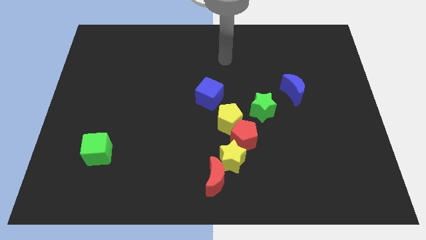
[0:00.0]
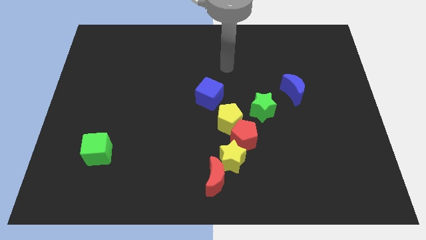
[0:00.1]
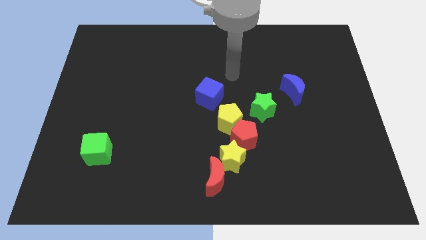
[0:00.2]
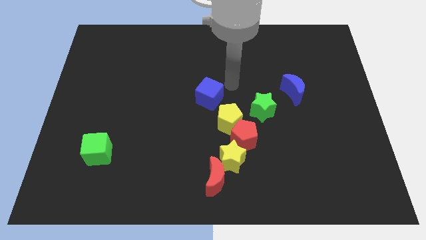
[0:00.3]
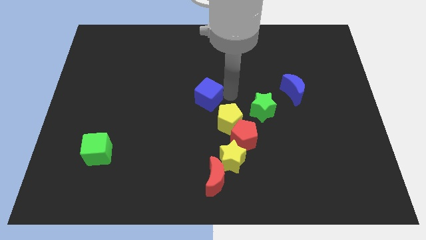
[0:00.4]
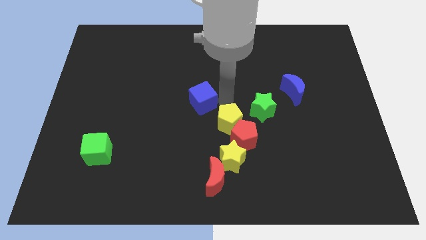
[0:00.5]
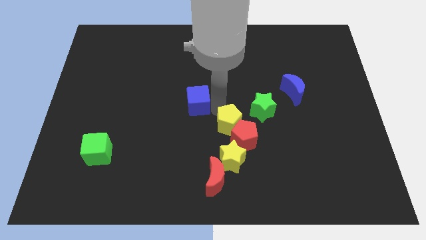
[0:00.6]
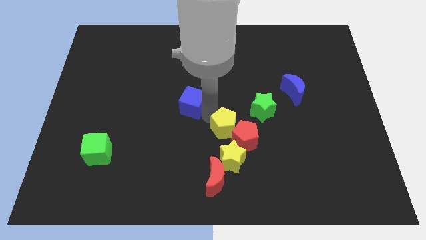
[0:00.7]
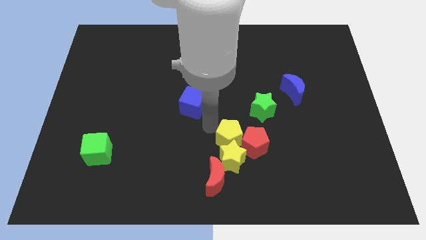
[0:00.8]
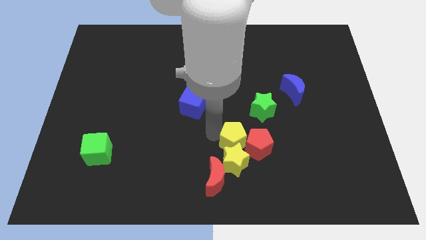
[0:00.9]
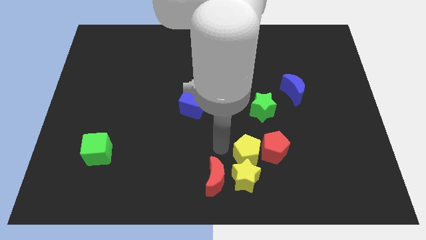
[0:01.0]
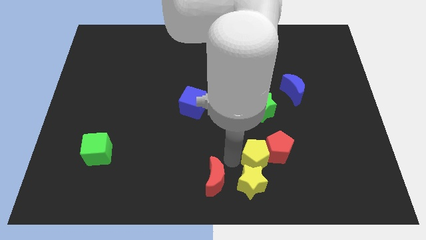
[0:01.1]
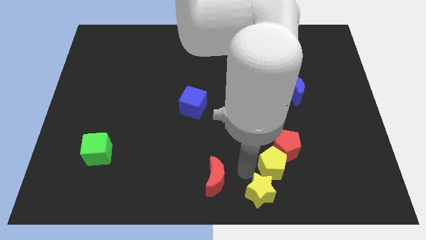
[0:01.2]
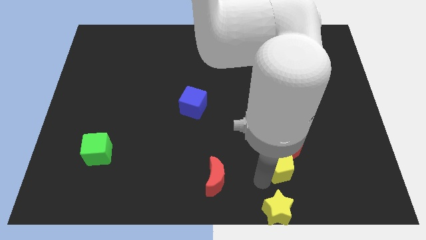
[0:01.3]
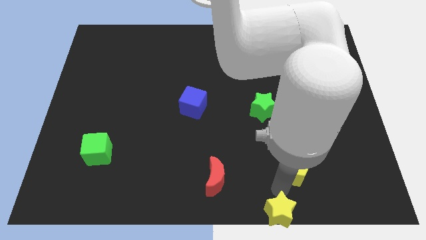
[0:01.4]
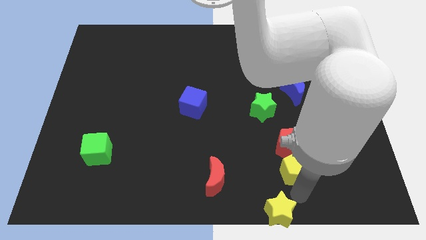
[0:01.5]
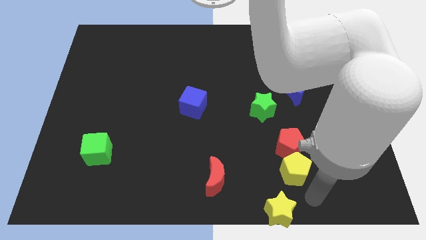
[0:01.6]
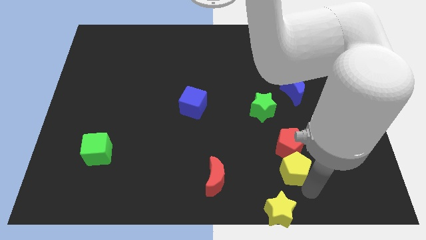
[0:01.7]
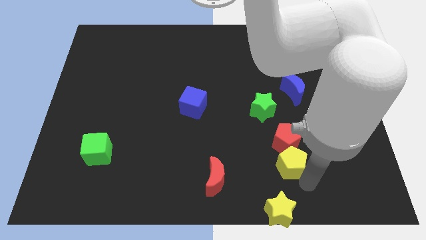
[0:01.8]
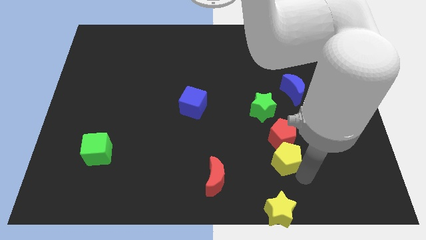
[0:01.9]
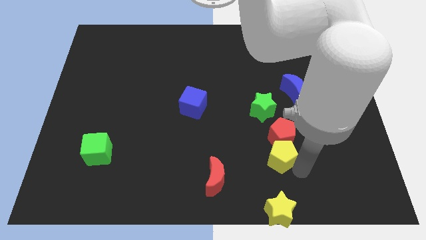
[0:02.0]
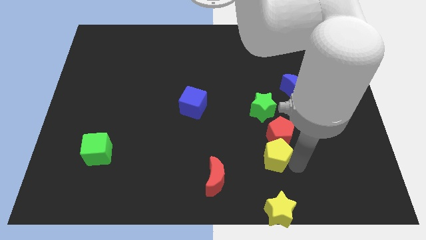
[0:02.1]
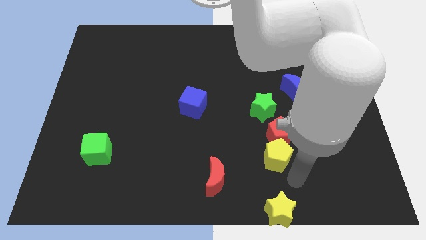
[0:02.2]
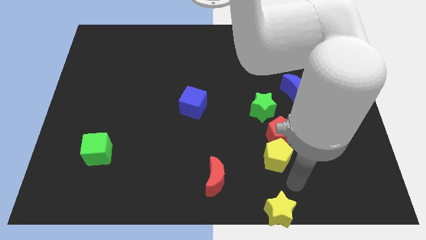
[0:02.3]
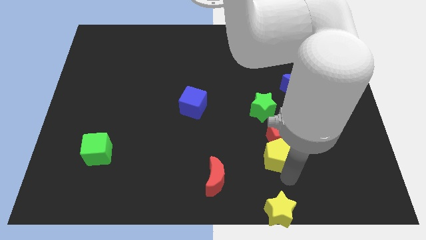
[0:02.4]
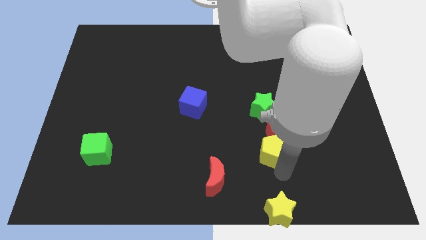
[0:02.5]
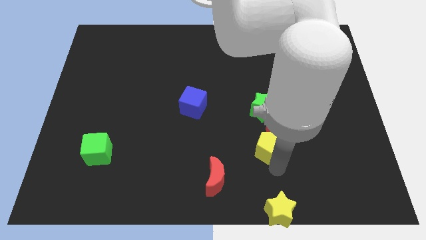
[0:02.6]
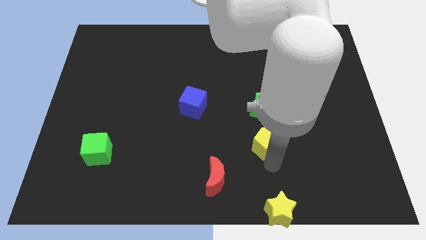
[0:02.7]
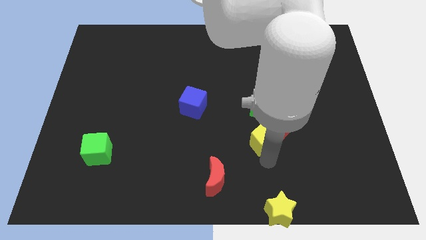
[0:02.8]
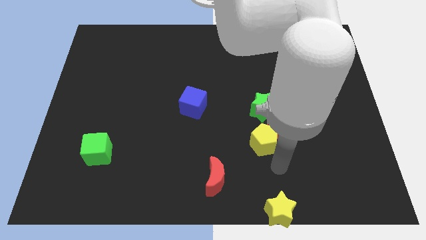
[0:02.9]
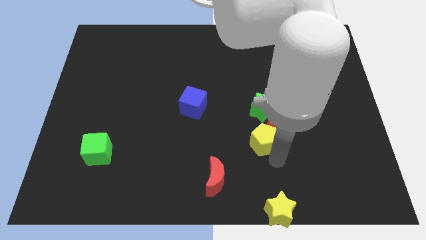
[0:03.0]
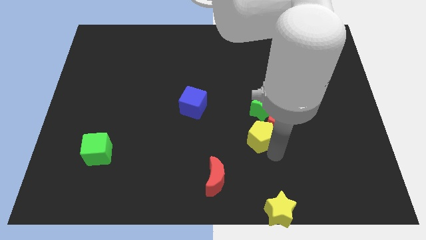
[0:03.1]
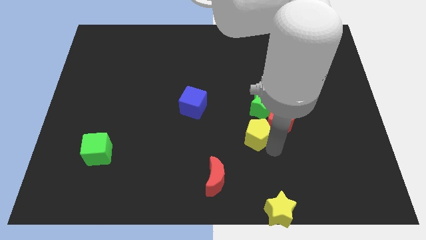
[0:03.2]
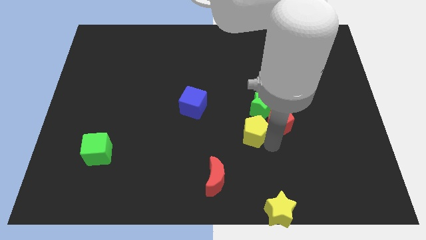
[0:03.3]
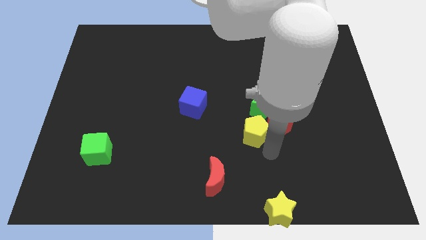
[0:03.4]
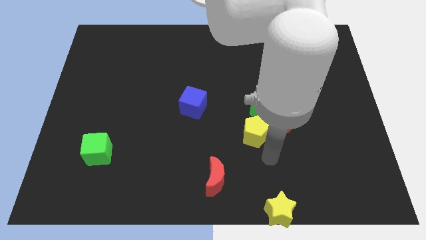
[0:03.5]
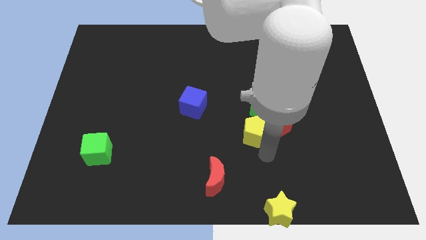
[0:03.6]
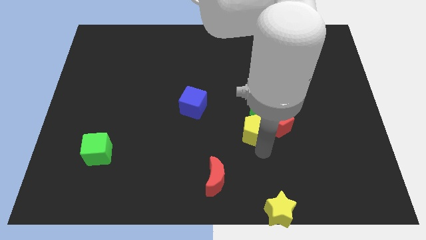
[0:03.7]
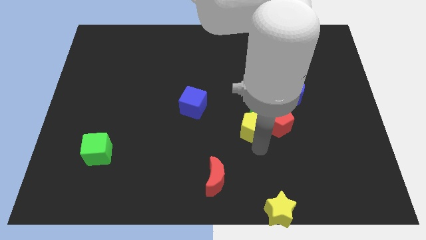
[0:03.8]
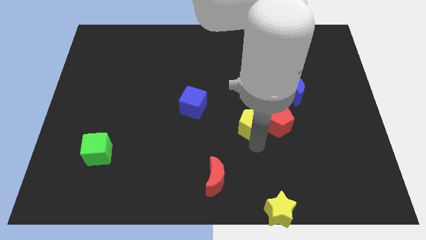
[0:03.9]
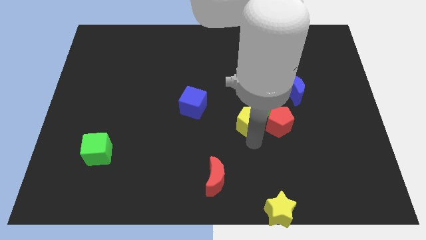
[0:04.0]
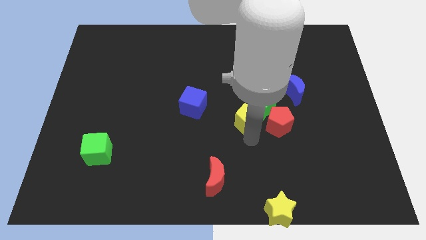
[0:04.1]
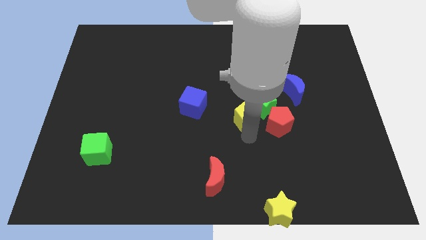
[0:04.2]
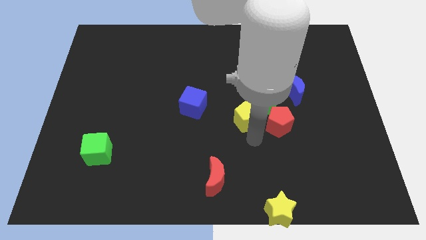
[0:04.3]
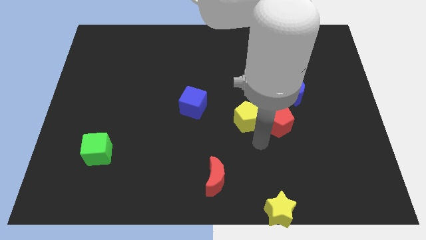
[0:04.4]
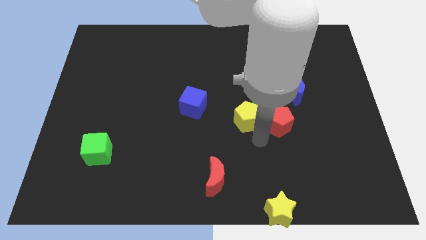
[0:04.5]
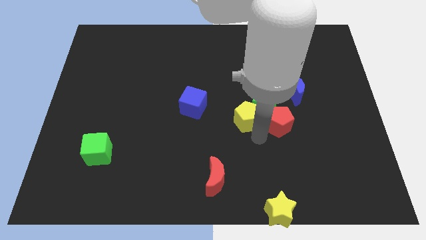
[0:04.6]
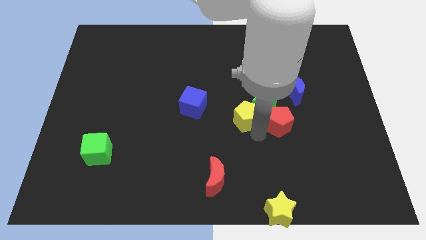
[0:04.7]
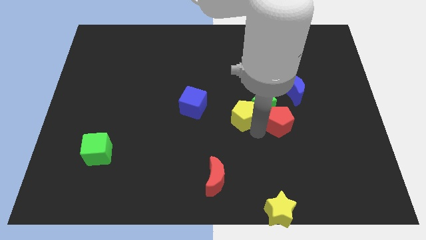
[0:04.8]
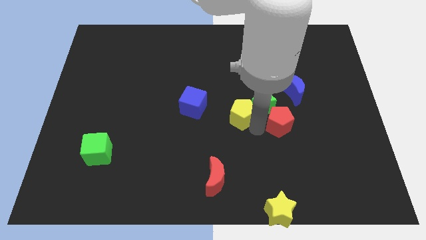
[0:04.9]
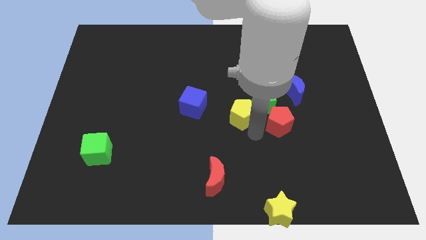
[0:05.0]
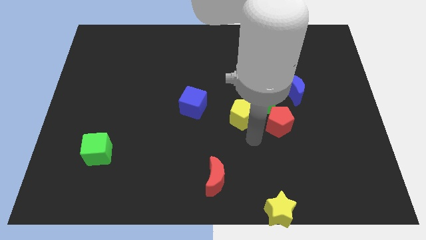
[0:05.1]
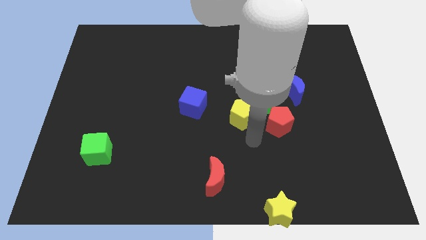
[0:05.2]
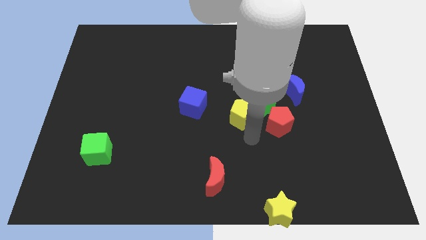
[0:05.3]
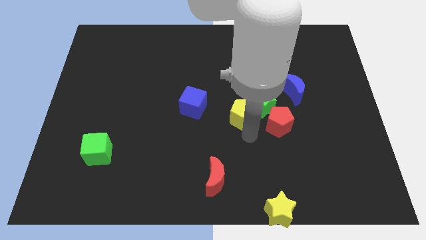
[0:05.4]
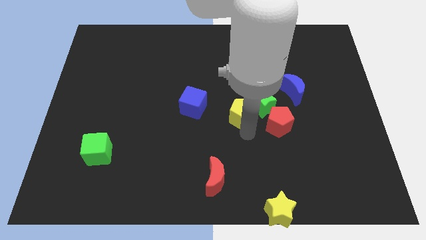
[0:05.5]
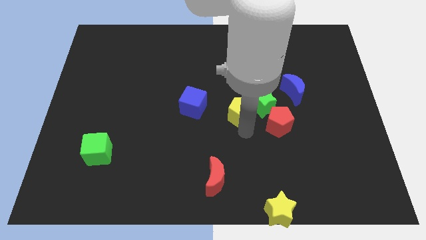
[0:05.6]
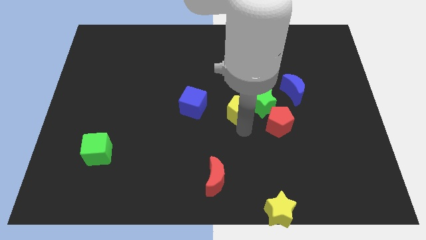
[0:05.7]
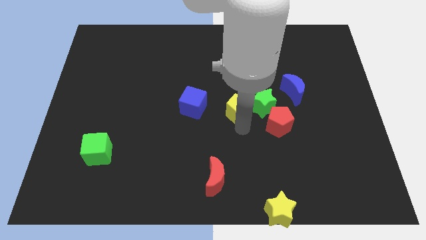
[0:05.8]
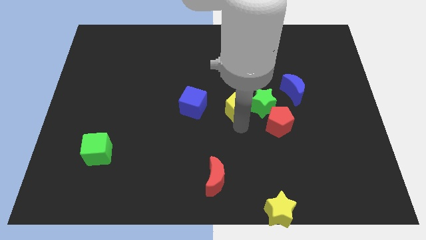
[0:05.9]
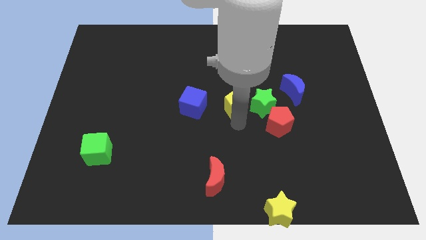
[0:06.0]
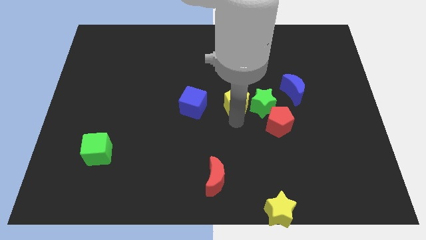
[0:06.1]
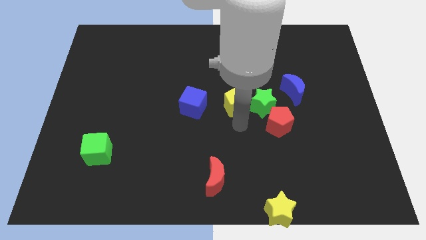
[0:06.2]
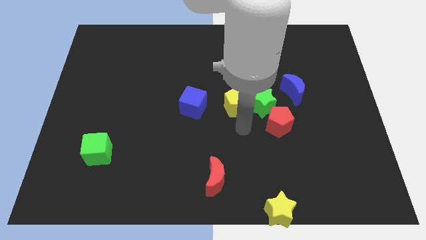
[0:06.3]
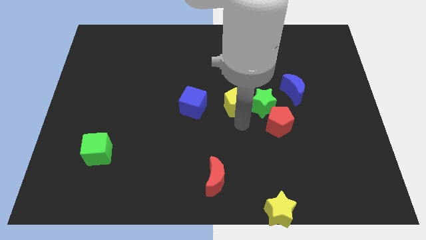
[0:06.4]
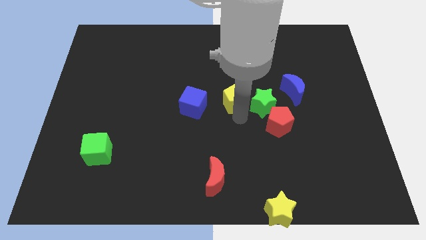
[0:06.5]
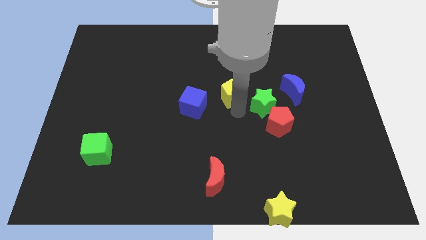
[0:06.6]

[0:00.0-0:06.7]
slide the yellow pentagon a little bit up

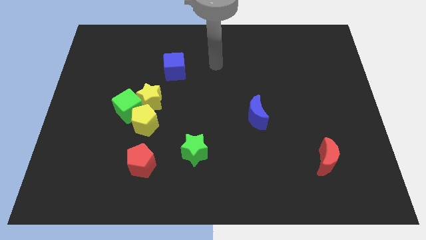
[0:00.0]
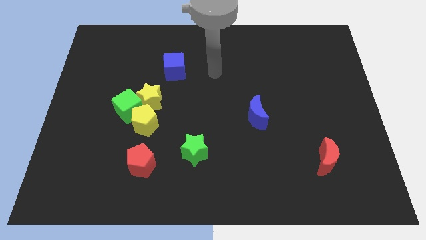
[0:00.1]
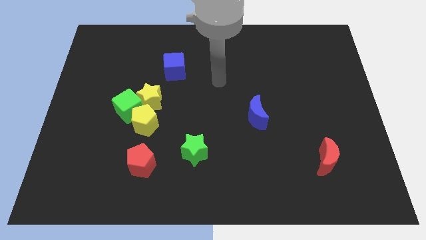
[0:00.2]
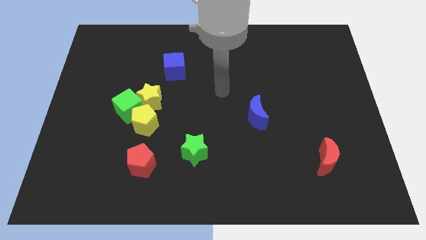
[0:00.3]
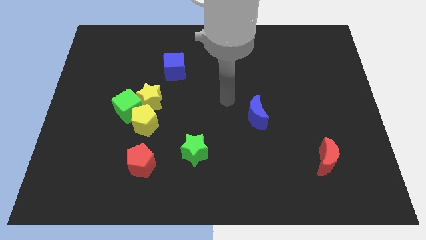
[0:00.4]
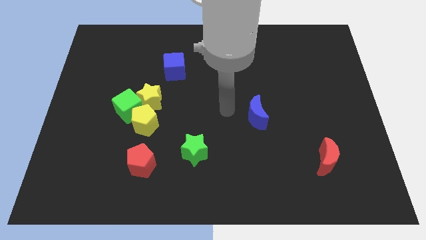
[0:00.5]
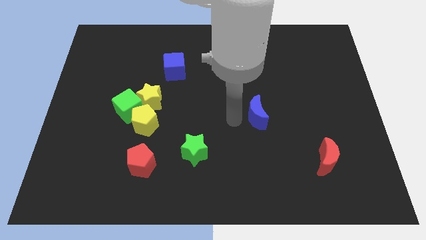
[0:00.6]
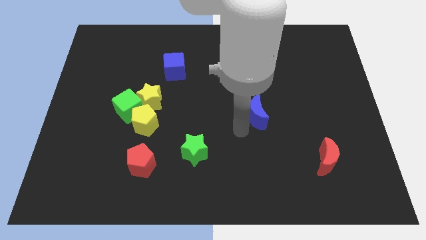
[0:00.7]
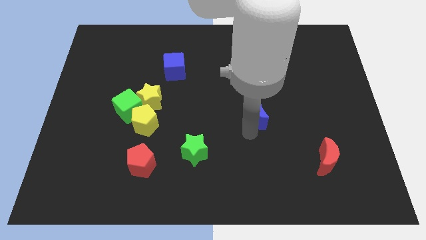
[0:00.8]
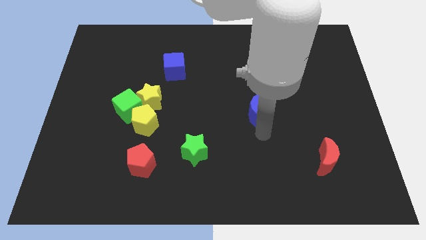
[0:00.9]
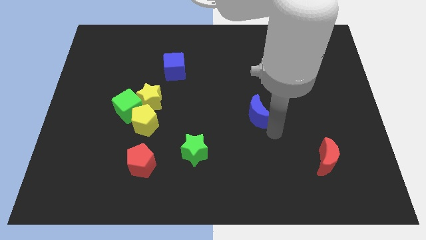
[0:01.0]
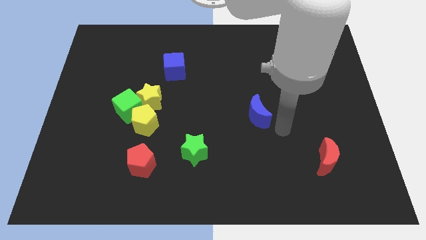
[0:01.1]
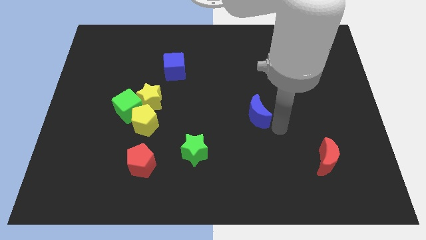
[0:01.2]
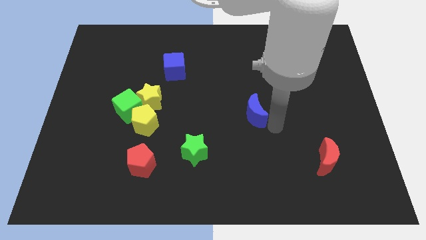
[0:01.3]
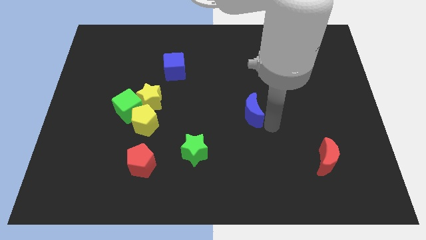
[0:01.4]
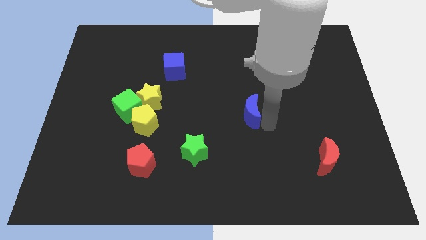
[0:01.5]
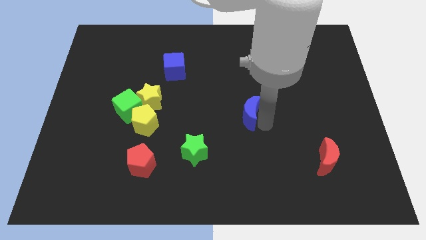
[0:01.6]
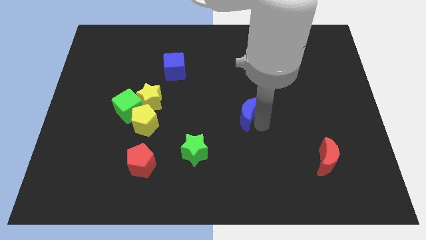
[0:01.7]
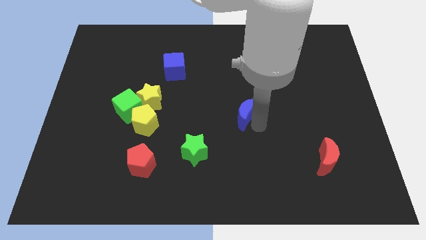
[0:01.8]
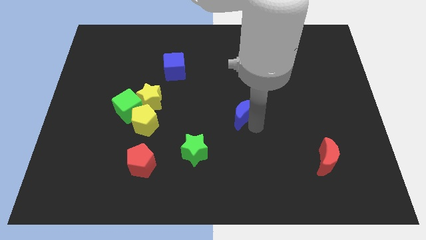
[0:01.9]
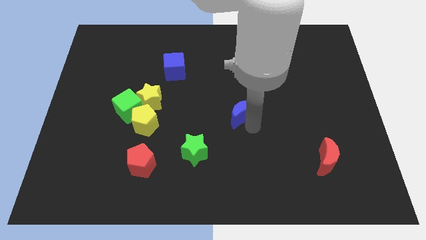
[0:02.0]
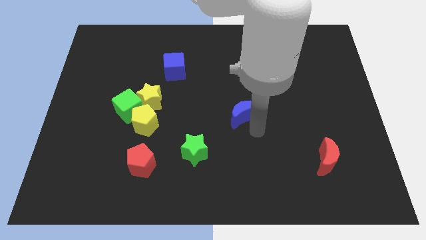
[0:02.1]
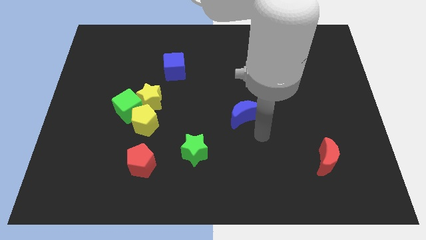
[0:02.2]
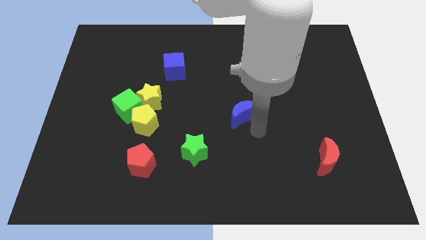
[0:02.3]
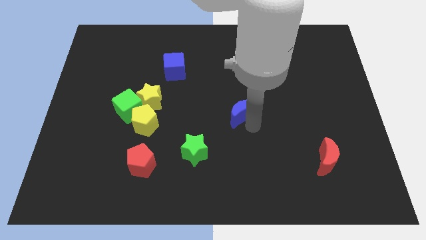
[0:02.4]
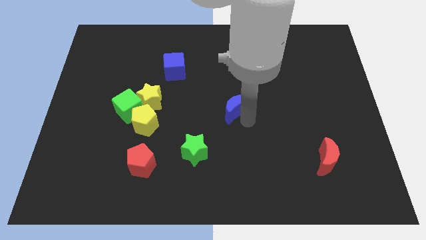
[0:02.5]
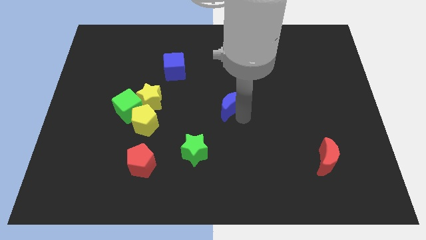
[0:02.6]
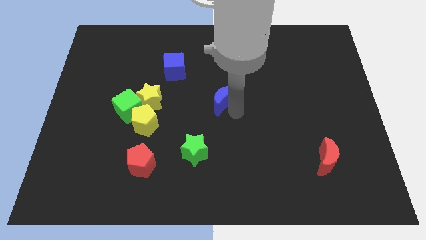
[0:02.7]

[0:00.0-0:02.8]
slide the blue moon upwards and to the left diagonally a little bit
